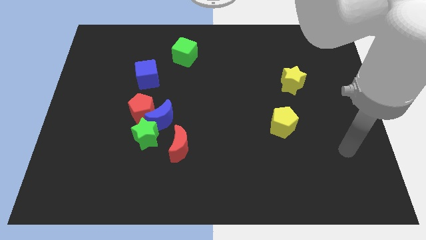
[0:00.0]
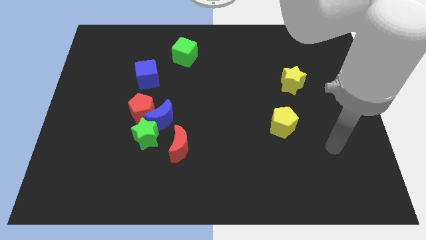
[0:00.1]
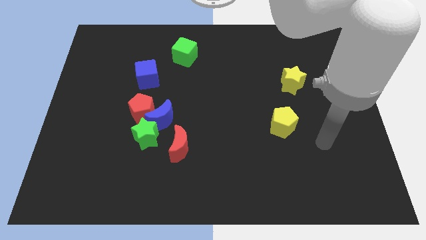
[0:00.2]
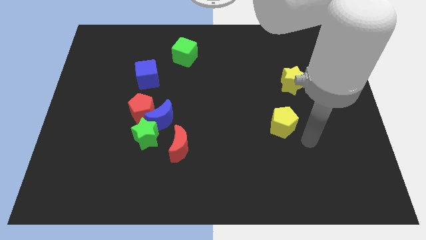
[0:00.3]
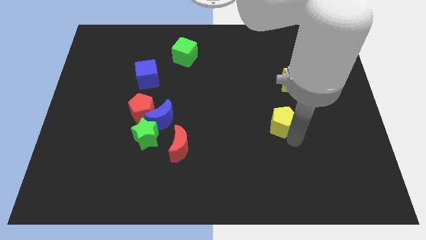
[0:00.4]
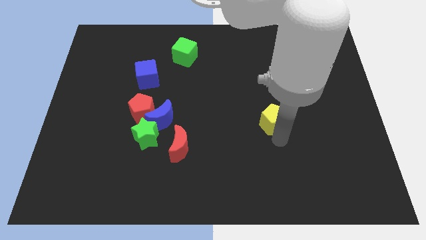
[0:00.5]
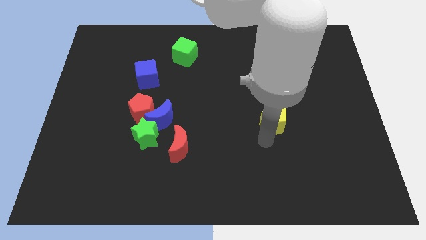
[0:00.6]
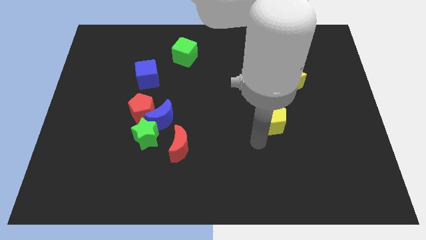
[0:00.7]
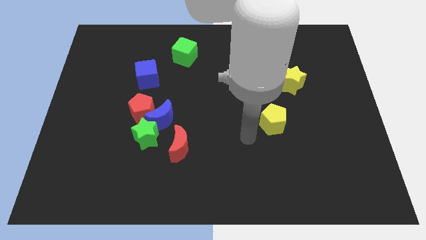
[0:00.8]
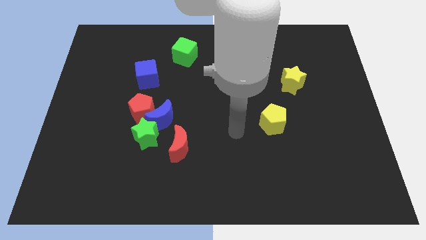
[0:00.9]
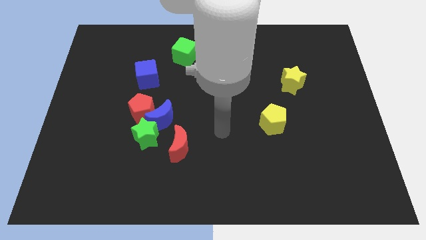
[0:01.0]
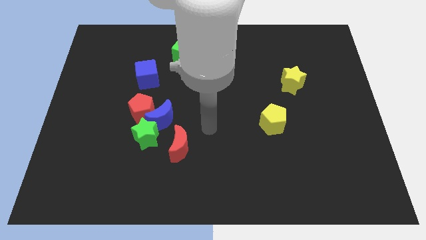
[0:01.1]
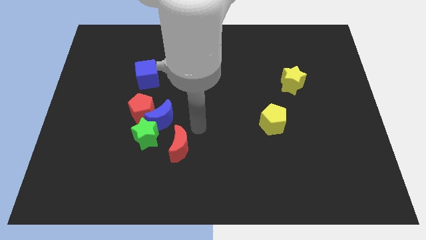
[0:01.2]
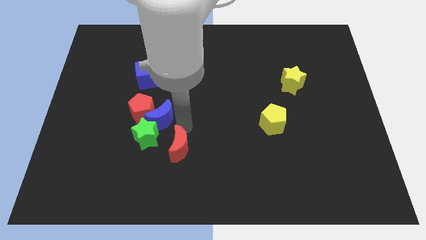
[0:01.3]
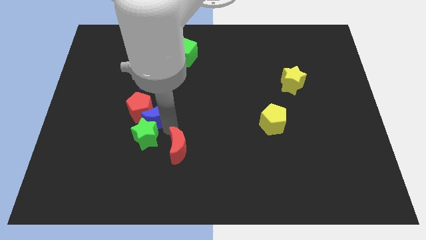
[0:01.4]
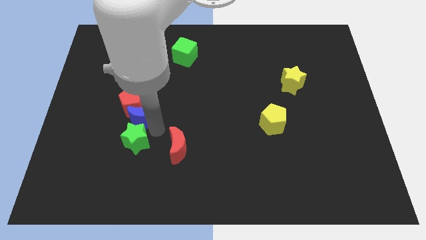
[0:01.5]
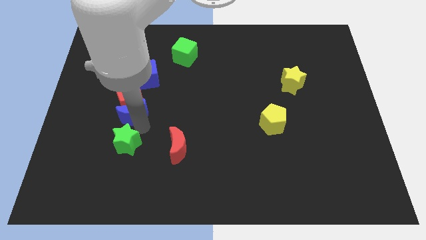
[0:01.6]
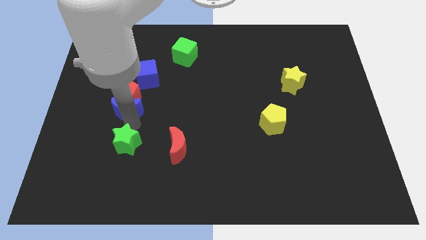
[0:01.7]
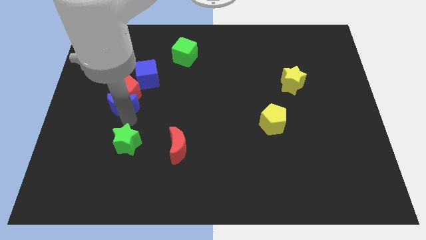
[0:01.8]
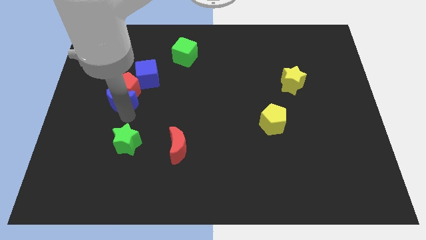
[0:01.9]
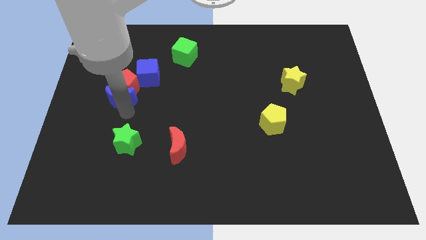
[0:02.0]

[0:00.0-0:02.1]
pull the red pentagon apart from the blue moon and green star

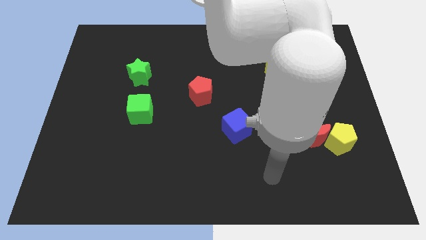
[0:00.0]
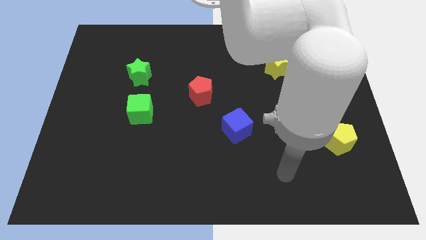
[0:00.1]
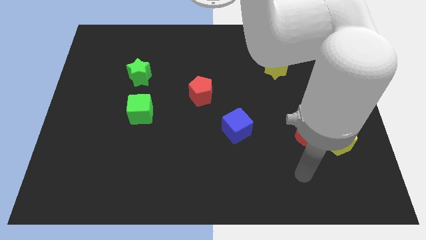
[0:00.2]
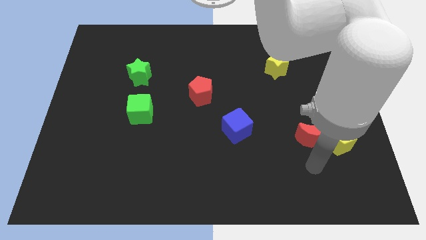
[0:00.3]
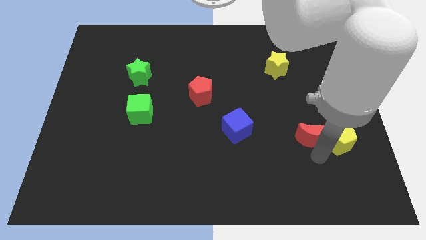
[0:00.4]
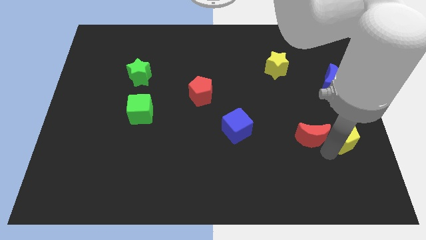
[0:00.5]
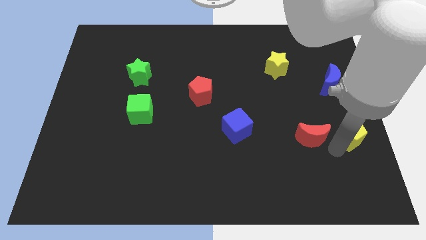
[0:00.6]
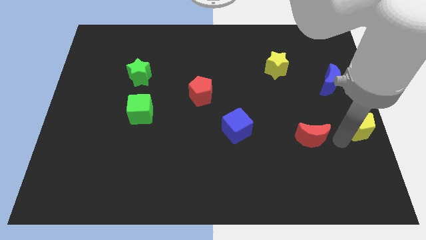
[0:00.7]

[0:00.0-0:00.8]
pull the red moon apart from the yellow pentagon

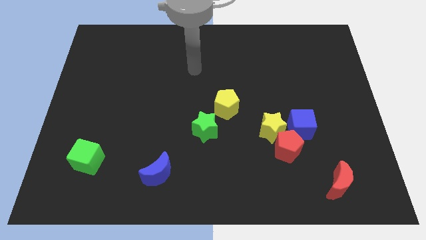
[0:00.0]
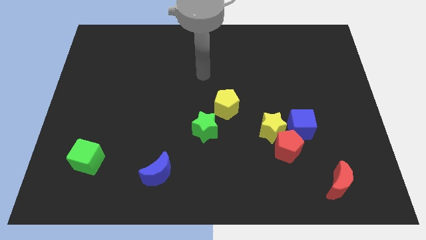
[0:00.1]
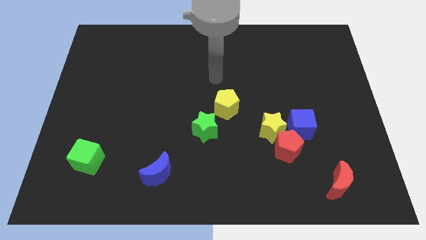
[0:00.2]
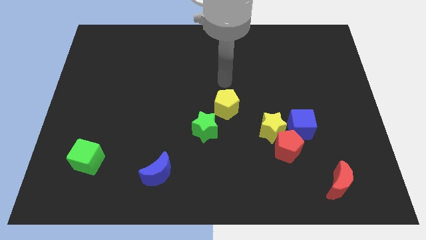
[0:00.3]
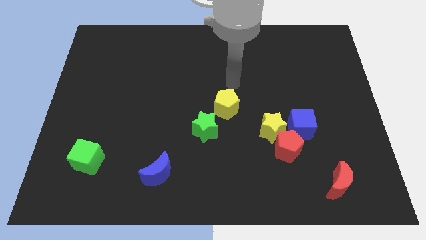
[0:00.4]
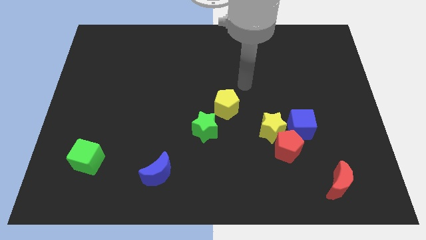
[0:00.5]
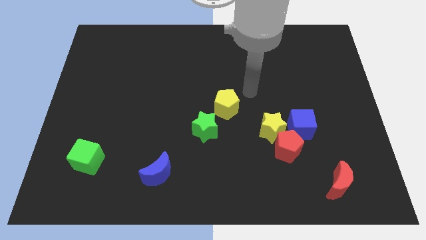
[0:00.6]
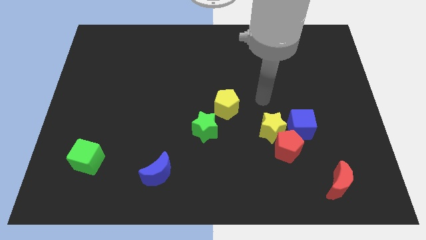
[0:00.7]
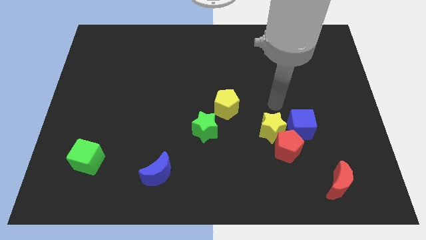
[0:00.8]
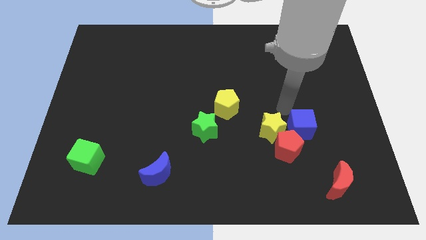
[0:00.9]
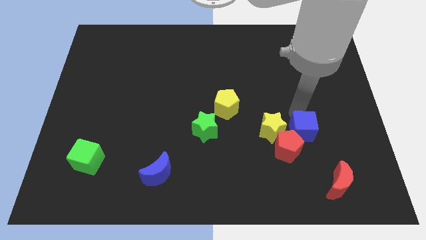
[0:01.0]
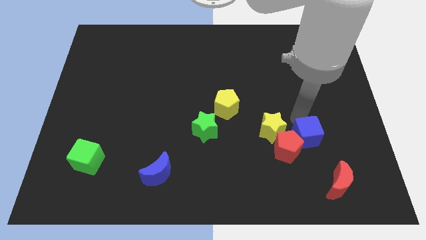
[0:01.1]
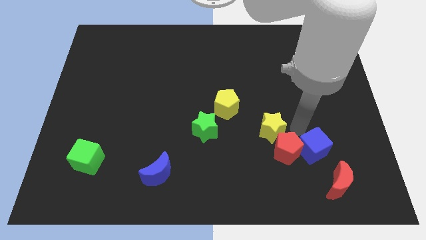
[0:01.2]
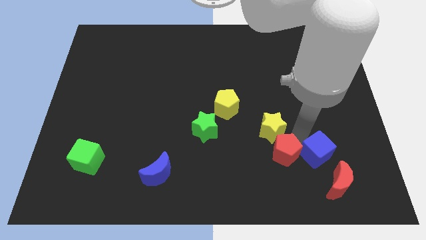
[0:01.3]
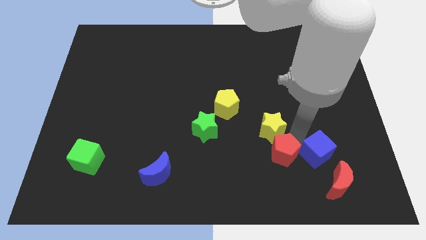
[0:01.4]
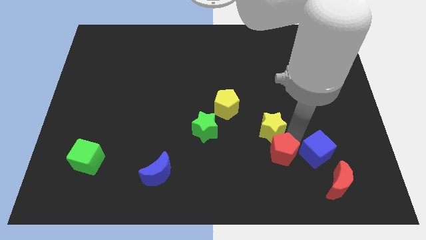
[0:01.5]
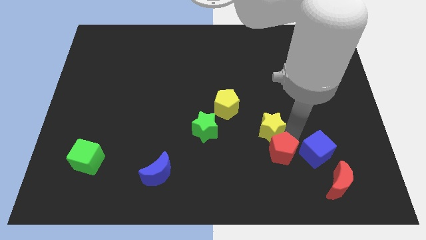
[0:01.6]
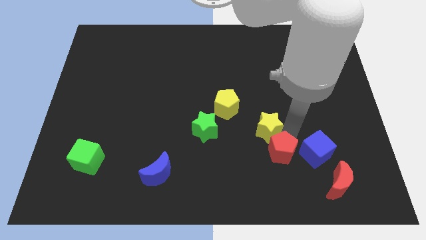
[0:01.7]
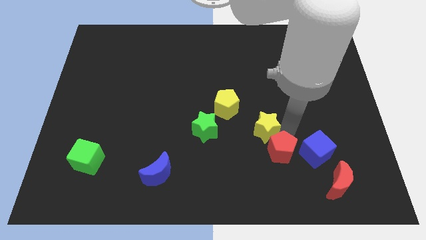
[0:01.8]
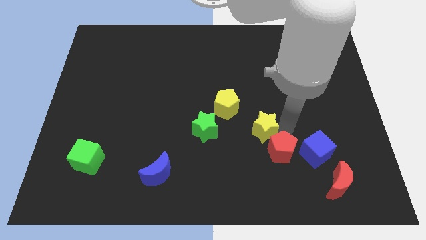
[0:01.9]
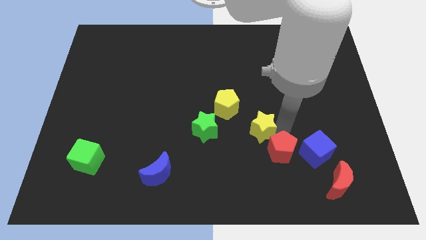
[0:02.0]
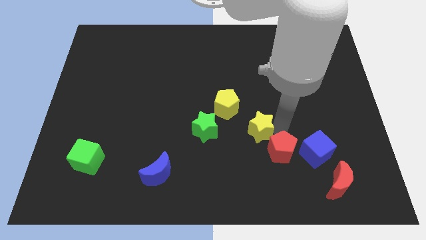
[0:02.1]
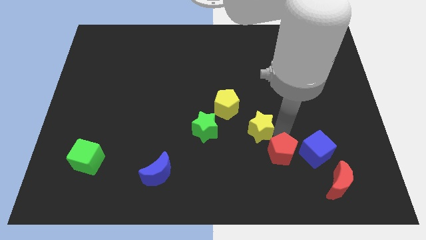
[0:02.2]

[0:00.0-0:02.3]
separate the yellow star from the red pentagon and blue cube

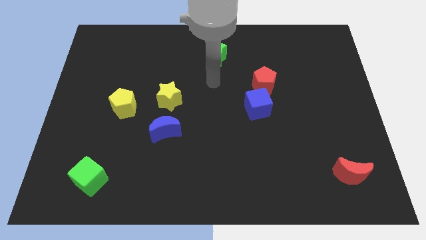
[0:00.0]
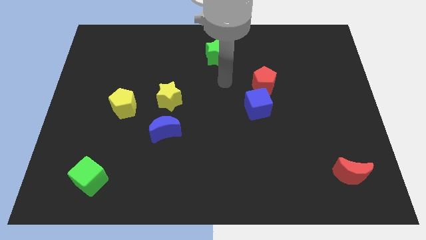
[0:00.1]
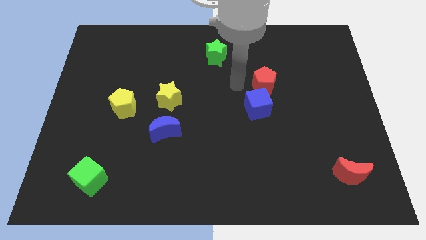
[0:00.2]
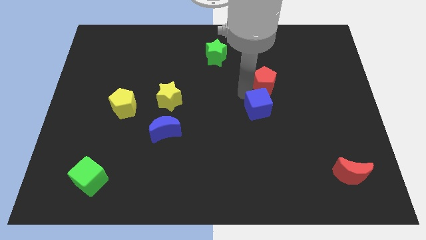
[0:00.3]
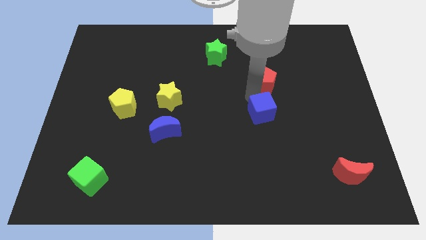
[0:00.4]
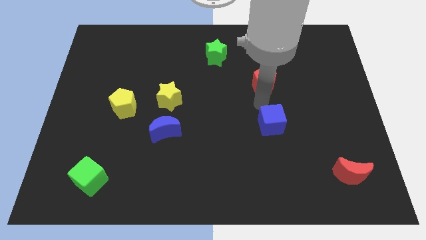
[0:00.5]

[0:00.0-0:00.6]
separate the red pentagon from the blue cube

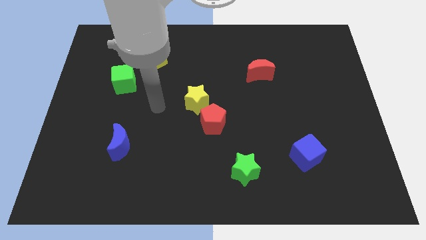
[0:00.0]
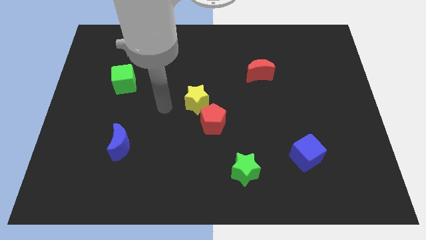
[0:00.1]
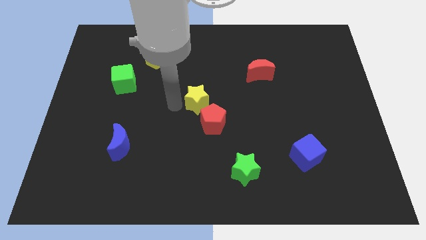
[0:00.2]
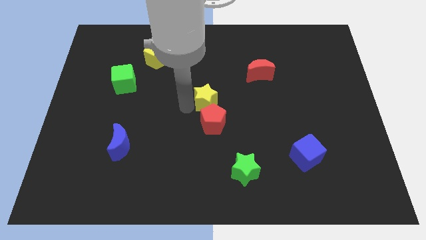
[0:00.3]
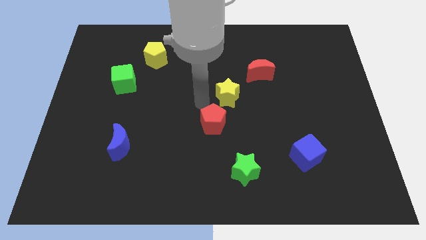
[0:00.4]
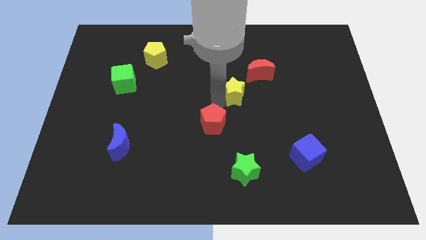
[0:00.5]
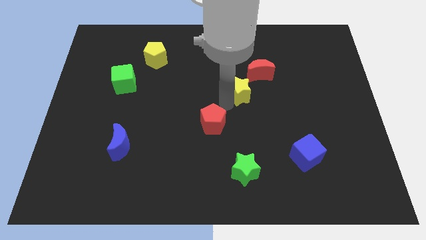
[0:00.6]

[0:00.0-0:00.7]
move the red pentagon away from the yellow star

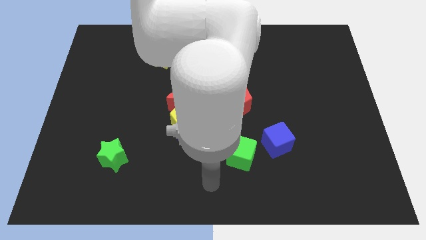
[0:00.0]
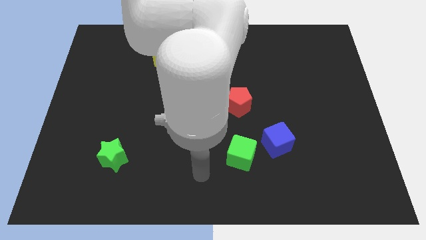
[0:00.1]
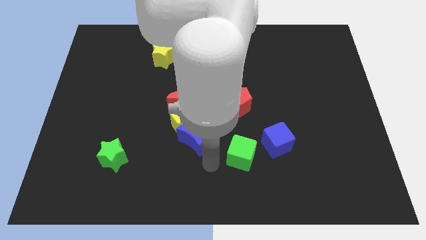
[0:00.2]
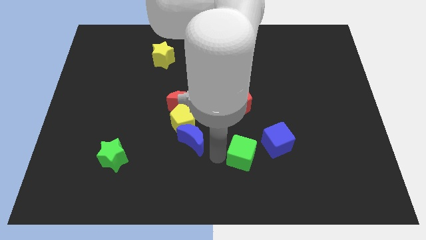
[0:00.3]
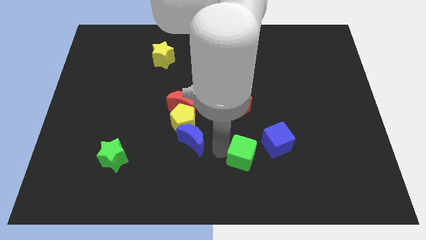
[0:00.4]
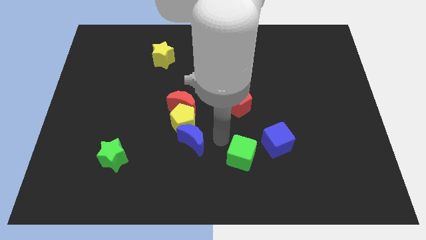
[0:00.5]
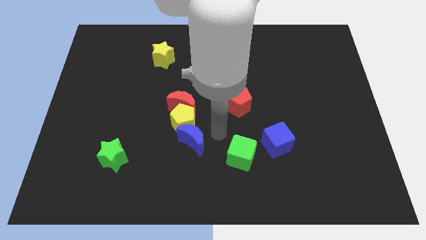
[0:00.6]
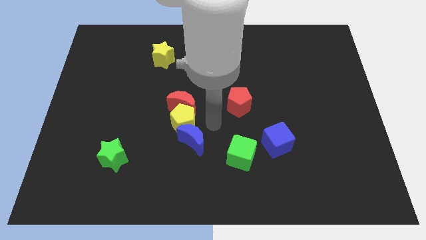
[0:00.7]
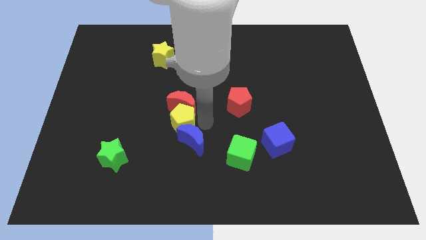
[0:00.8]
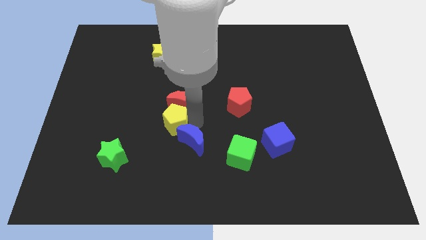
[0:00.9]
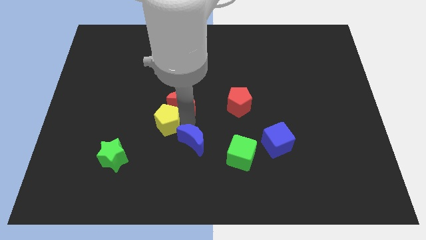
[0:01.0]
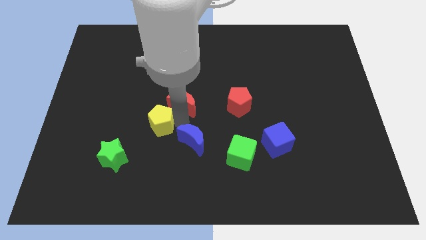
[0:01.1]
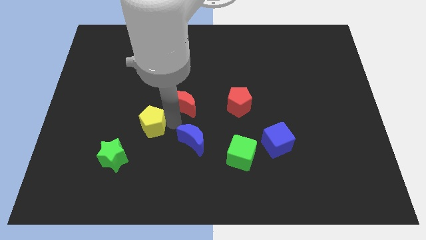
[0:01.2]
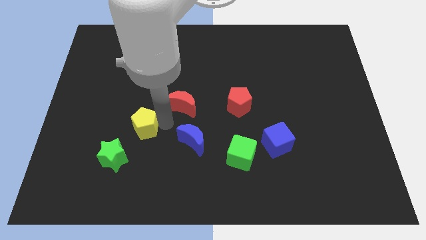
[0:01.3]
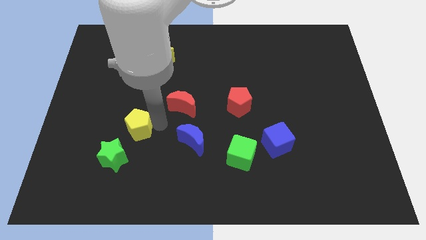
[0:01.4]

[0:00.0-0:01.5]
pull the yellow pentagon apart from the red moon and blue moon

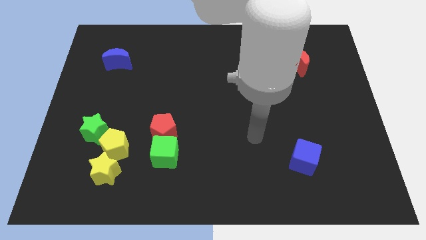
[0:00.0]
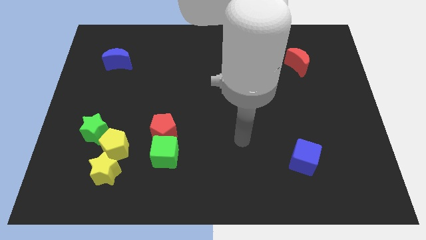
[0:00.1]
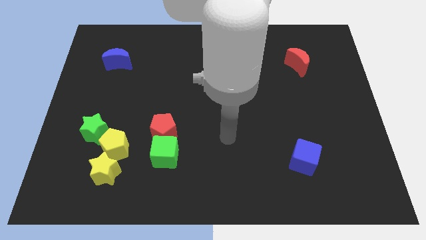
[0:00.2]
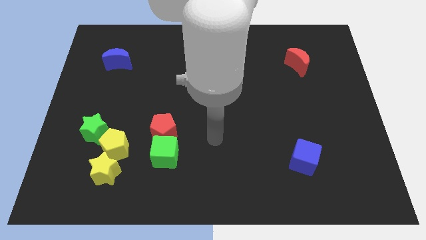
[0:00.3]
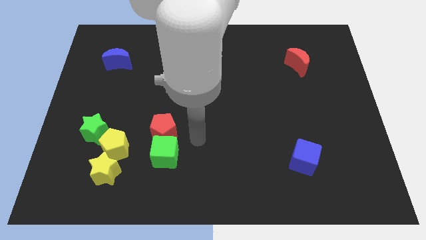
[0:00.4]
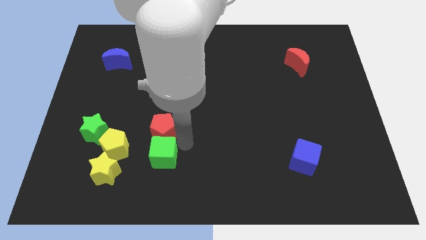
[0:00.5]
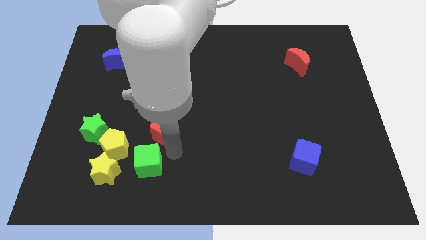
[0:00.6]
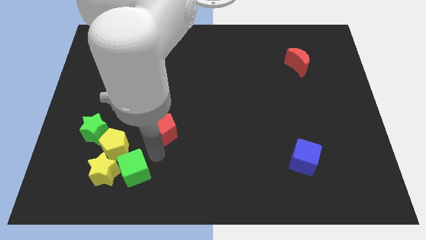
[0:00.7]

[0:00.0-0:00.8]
separate the red pentagon from the green cube

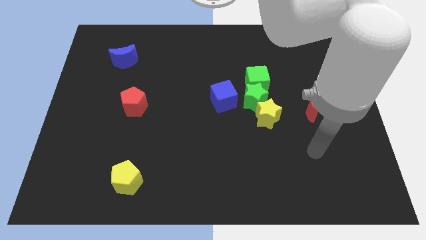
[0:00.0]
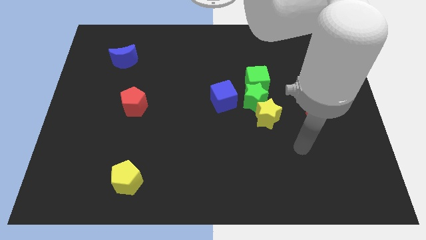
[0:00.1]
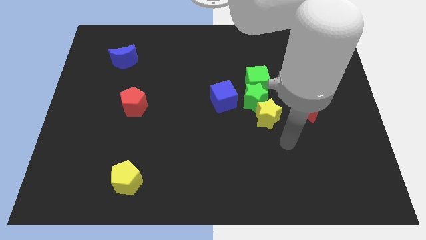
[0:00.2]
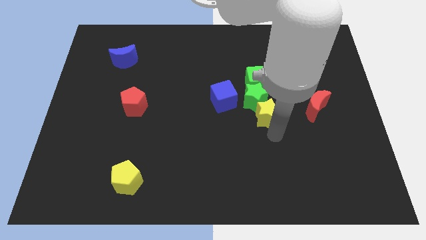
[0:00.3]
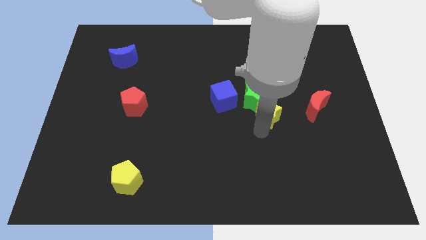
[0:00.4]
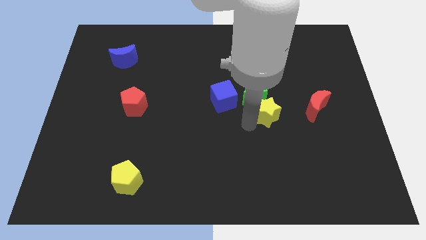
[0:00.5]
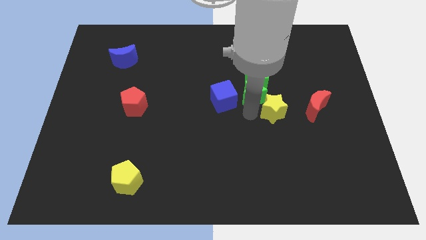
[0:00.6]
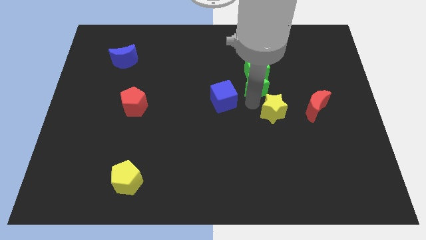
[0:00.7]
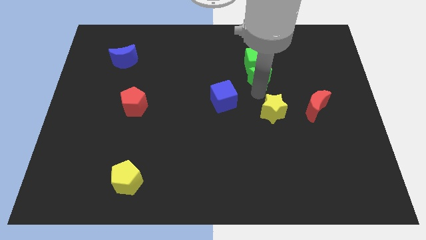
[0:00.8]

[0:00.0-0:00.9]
move the yellow star away from the green star
